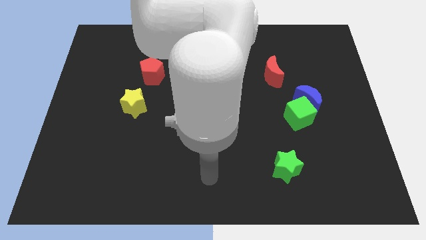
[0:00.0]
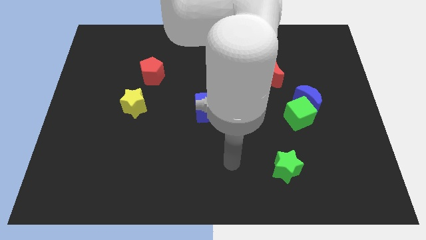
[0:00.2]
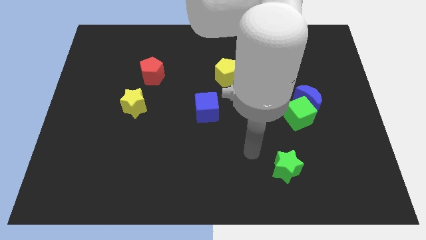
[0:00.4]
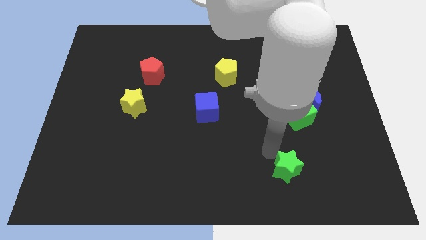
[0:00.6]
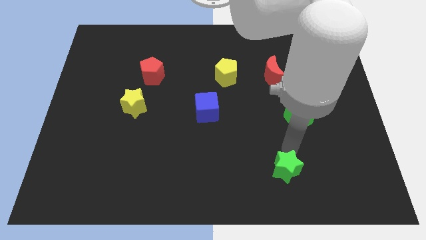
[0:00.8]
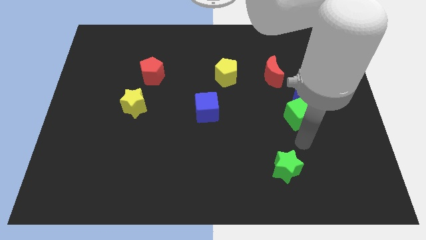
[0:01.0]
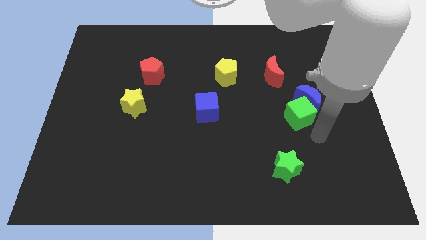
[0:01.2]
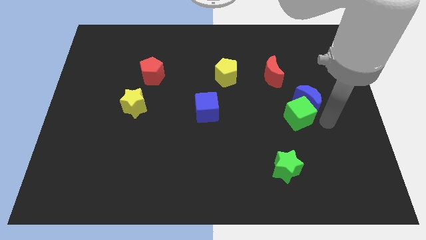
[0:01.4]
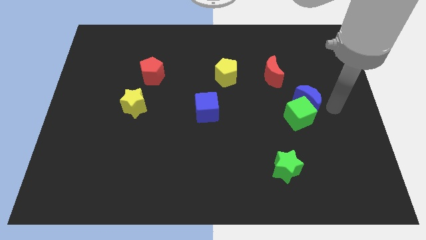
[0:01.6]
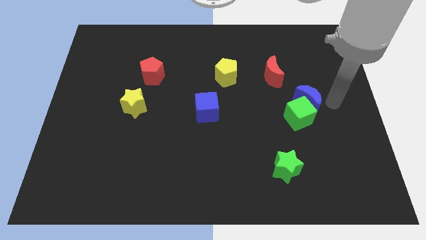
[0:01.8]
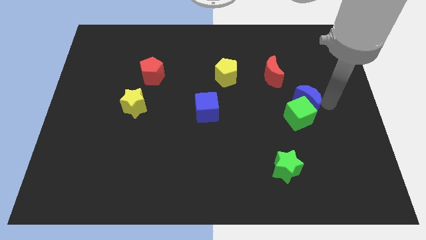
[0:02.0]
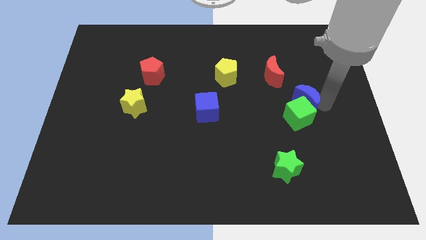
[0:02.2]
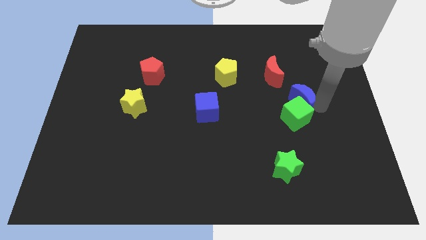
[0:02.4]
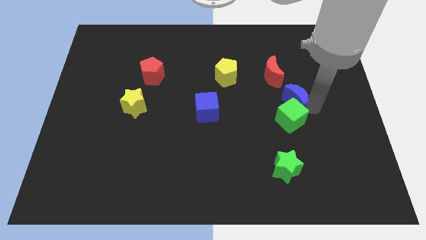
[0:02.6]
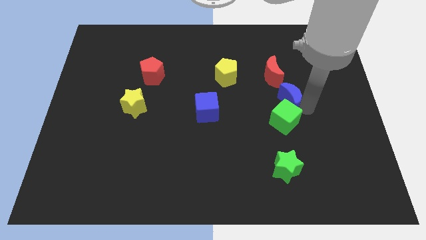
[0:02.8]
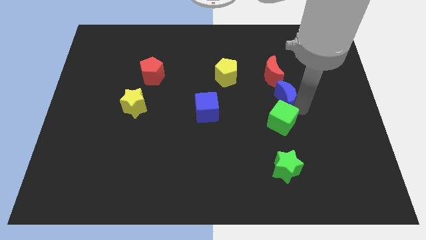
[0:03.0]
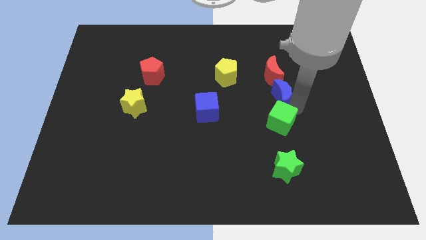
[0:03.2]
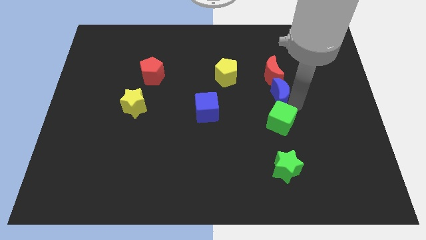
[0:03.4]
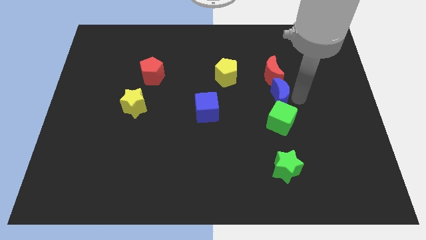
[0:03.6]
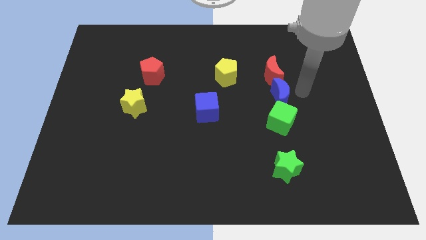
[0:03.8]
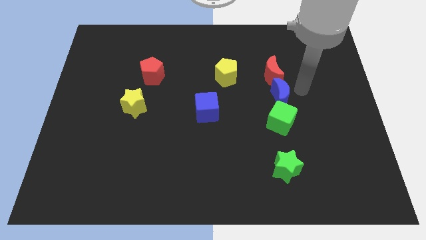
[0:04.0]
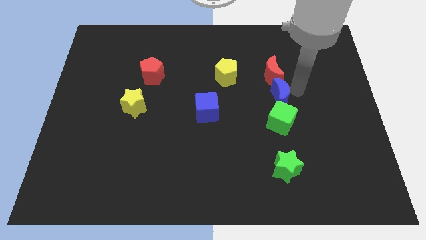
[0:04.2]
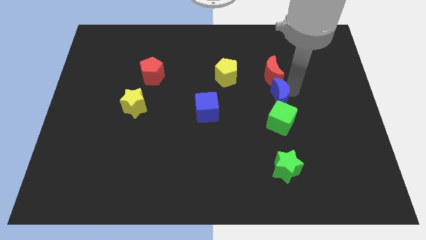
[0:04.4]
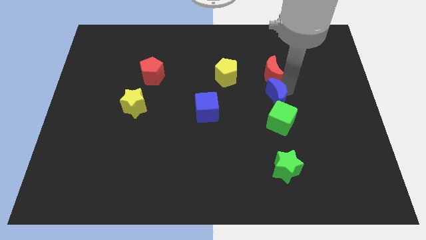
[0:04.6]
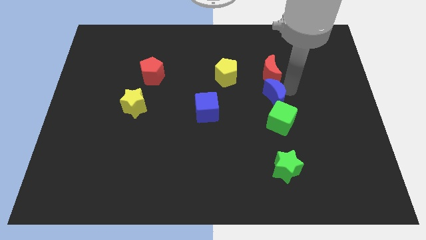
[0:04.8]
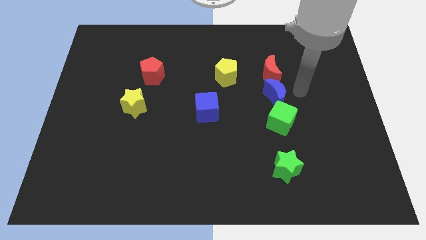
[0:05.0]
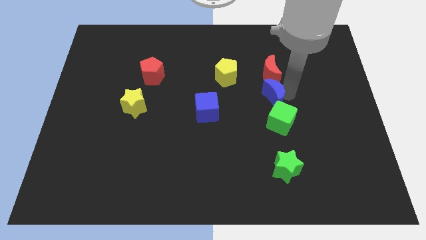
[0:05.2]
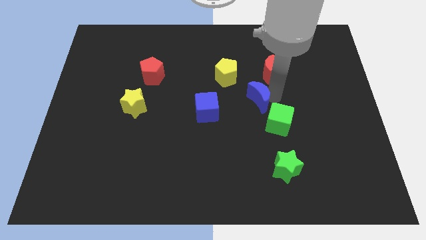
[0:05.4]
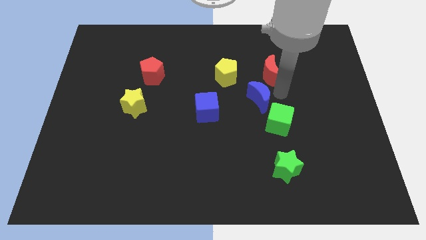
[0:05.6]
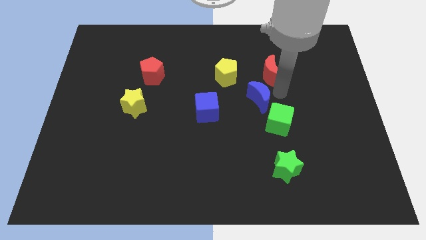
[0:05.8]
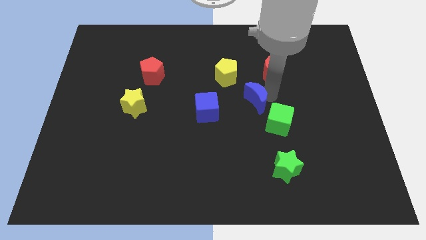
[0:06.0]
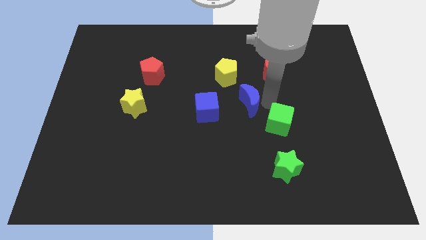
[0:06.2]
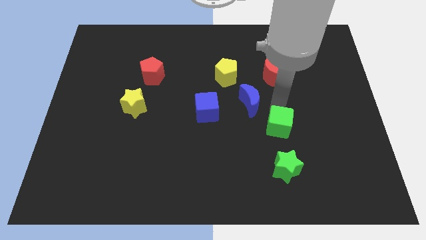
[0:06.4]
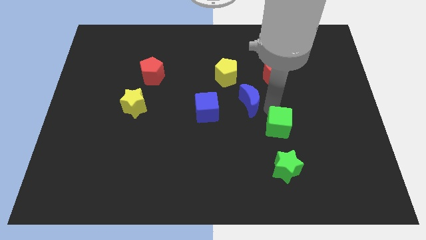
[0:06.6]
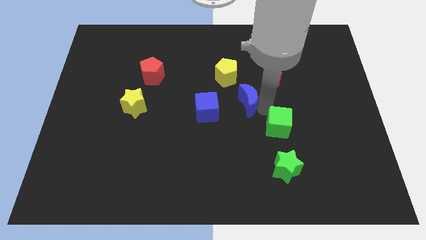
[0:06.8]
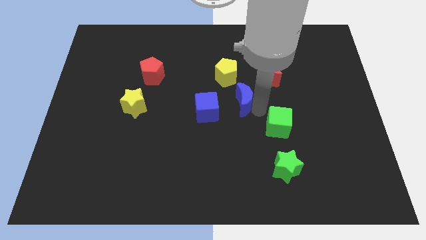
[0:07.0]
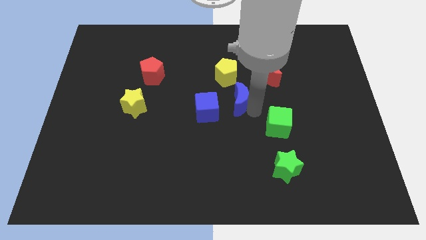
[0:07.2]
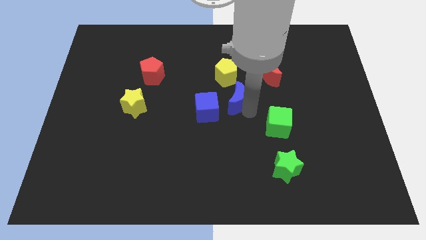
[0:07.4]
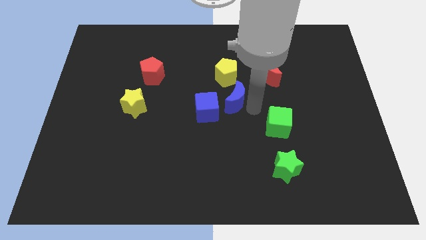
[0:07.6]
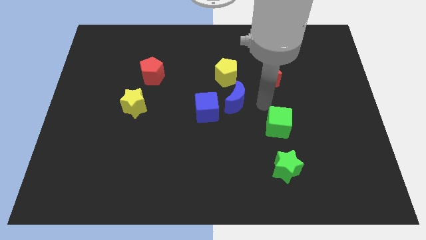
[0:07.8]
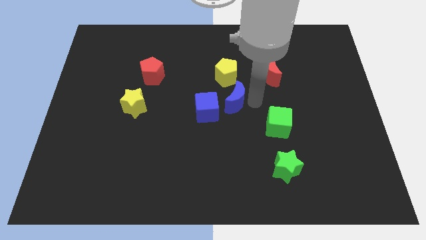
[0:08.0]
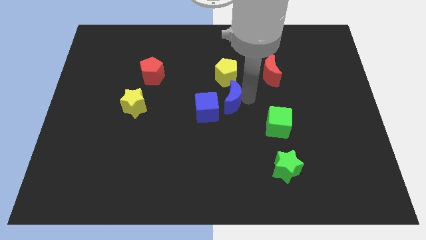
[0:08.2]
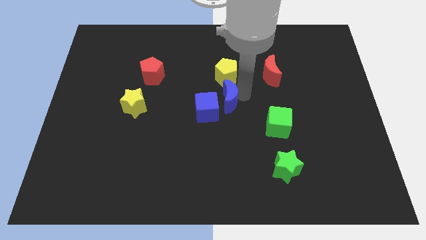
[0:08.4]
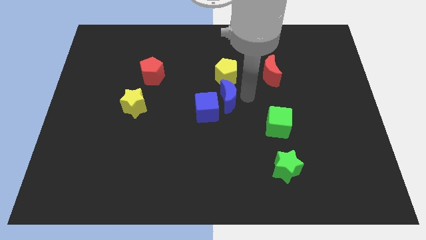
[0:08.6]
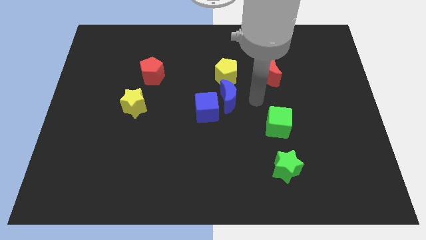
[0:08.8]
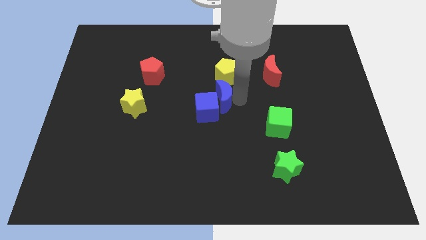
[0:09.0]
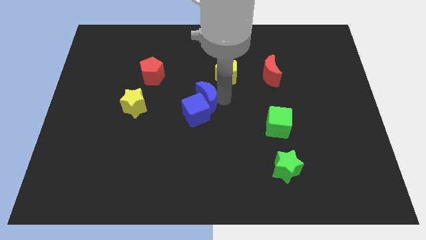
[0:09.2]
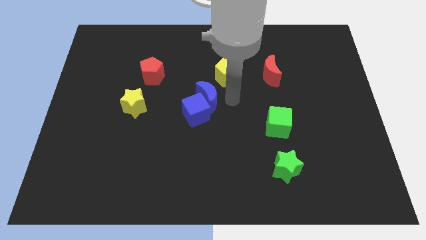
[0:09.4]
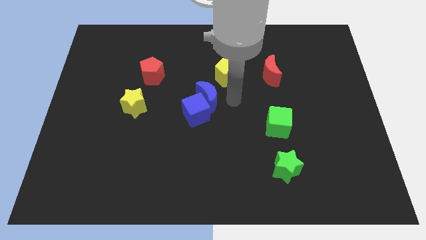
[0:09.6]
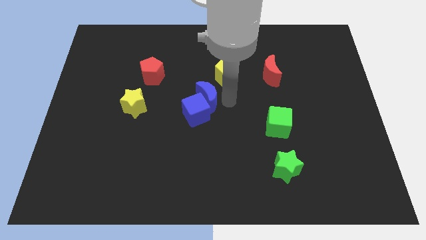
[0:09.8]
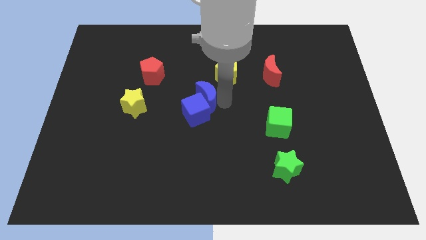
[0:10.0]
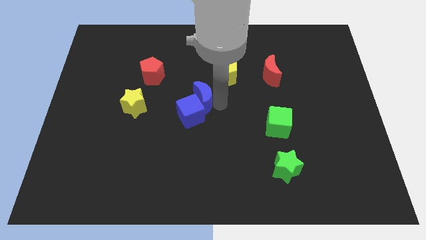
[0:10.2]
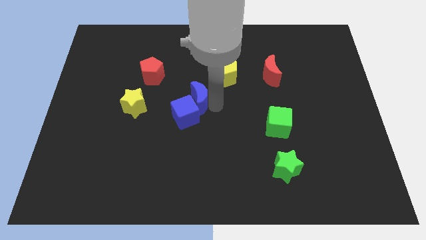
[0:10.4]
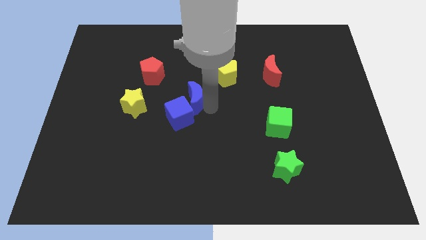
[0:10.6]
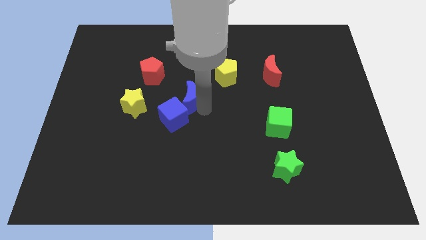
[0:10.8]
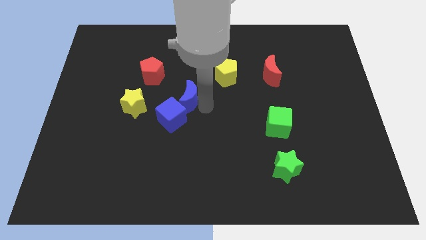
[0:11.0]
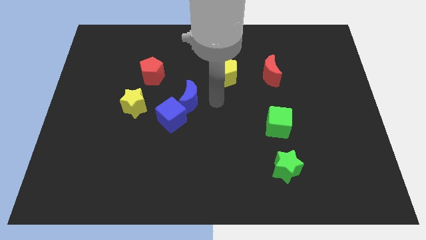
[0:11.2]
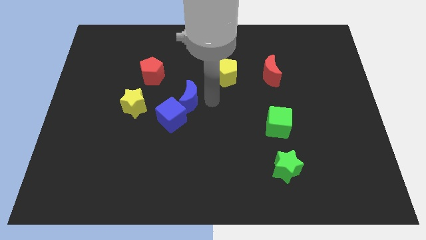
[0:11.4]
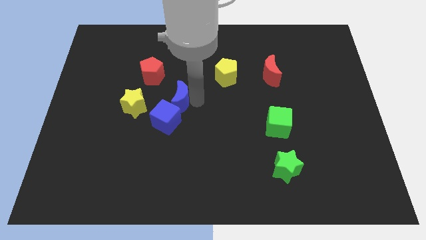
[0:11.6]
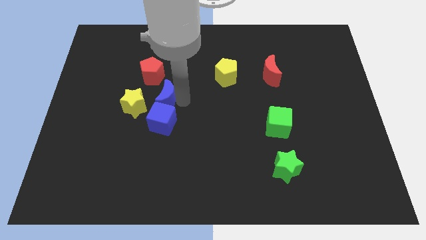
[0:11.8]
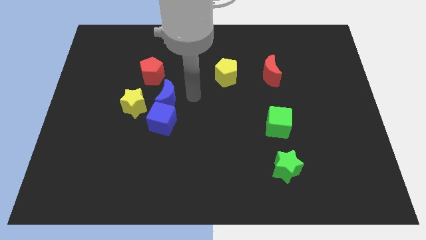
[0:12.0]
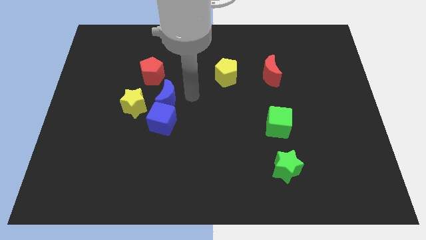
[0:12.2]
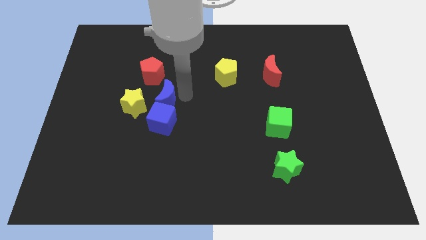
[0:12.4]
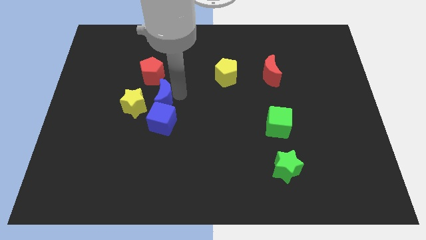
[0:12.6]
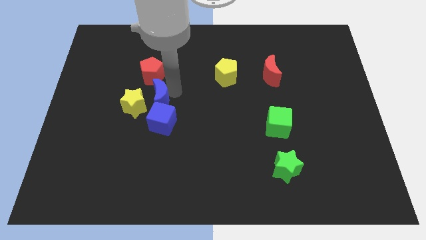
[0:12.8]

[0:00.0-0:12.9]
move the blue moon towards the yellow star

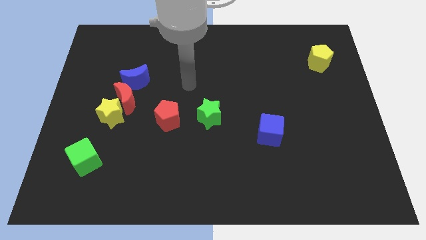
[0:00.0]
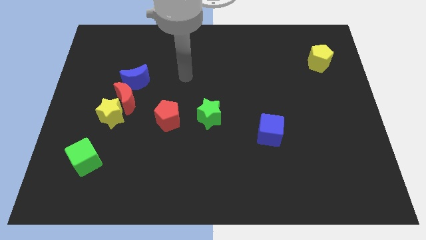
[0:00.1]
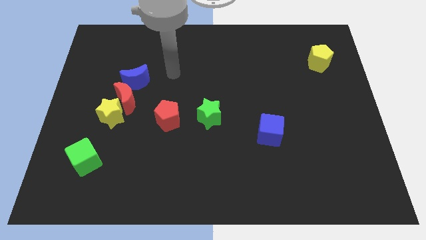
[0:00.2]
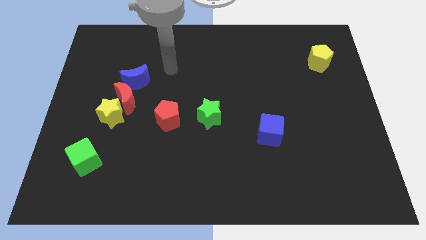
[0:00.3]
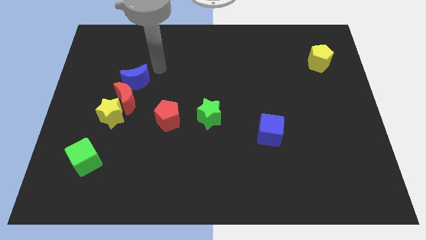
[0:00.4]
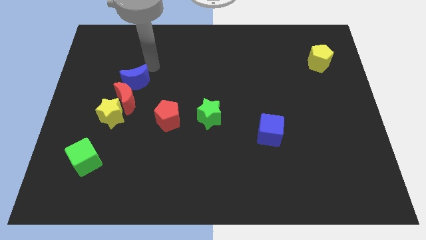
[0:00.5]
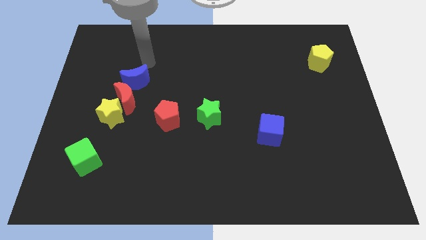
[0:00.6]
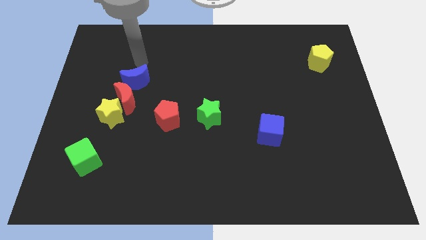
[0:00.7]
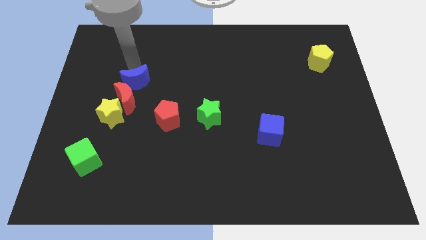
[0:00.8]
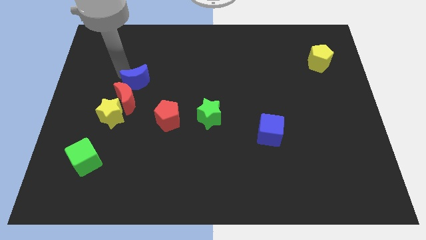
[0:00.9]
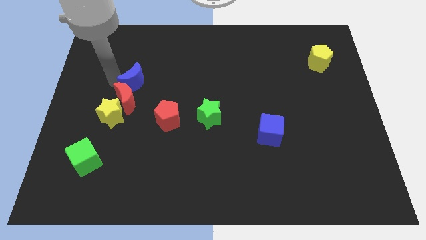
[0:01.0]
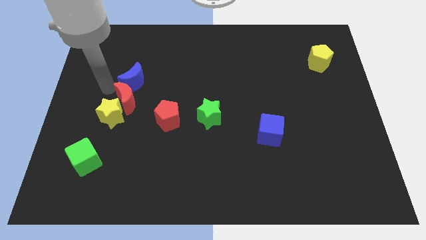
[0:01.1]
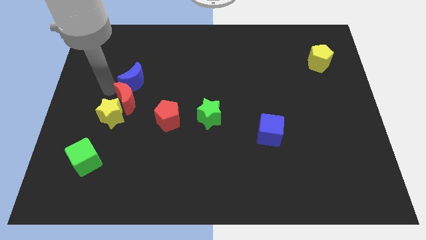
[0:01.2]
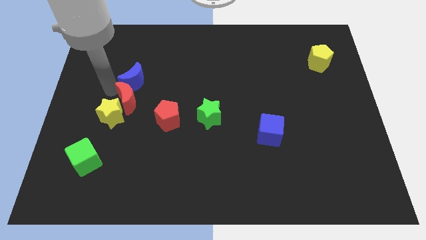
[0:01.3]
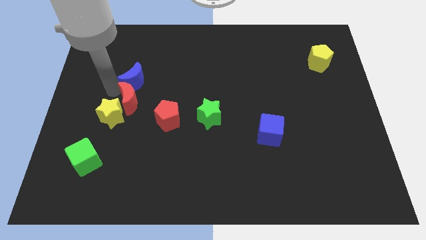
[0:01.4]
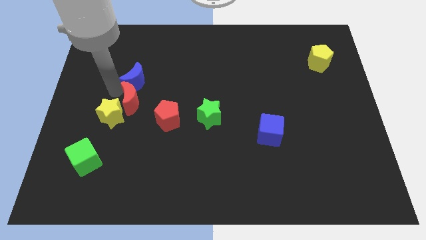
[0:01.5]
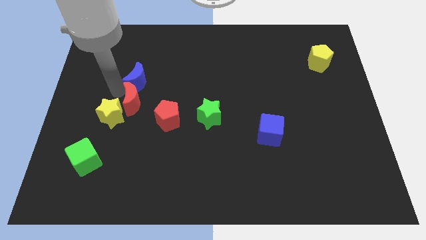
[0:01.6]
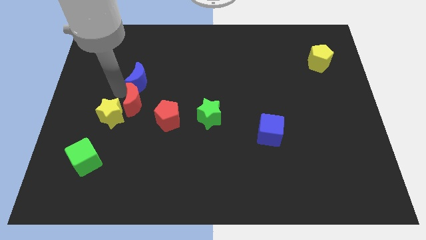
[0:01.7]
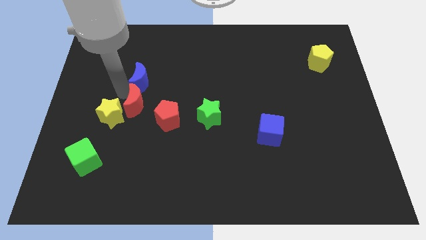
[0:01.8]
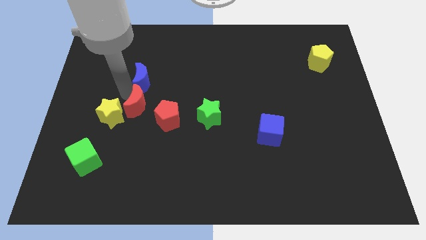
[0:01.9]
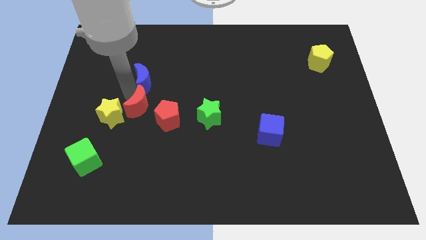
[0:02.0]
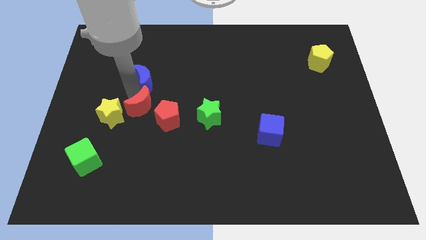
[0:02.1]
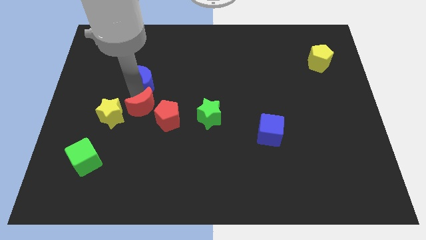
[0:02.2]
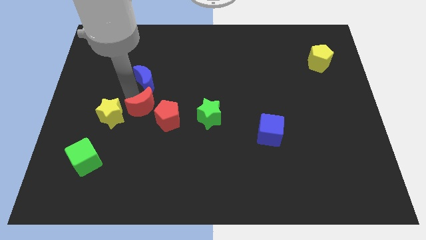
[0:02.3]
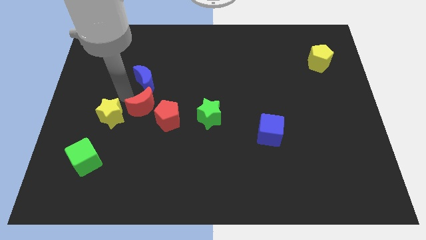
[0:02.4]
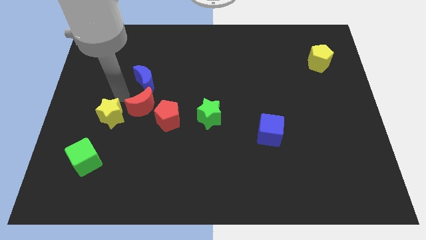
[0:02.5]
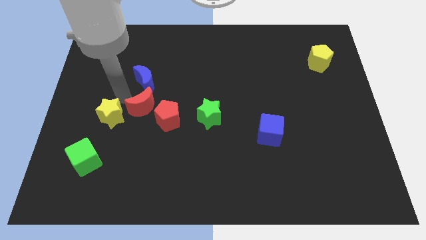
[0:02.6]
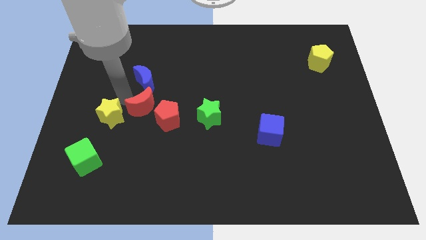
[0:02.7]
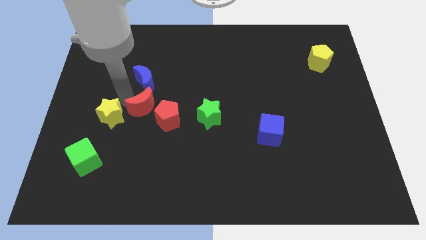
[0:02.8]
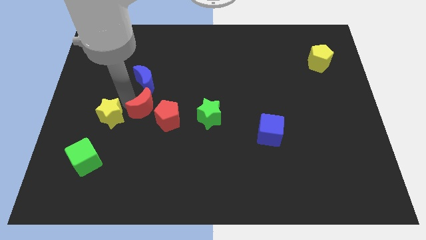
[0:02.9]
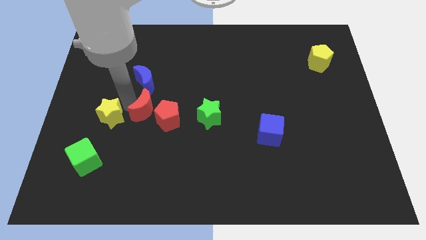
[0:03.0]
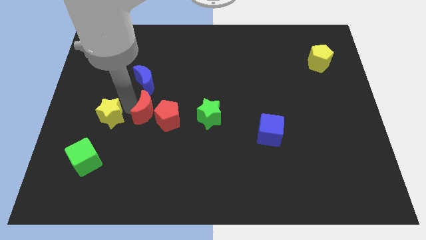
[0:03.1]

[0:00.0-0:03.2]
move the red moon to the red pentagon
